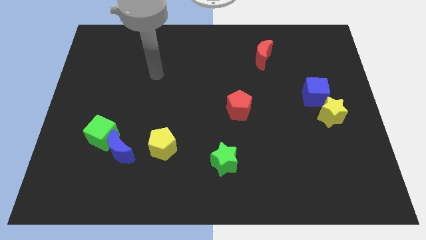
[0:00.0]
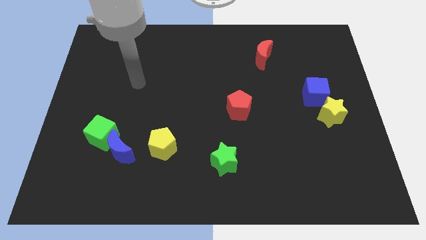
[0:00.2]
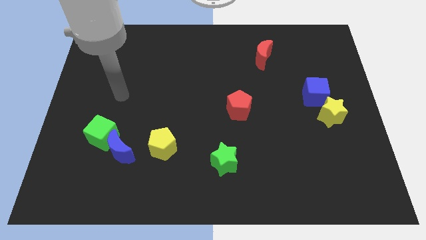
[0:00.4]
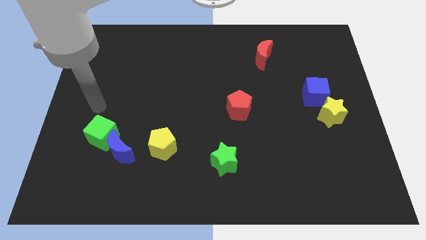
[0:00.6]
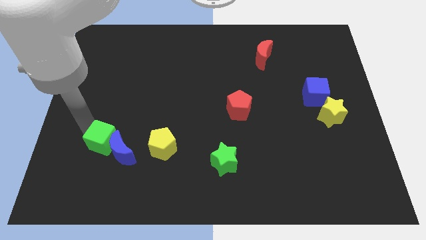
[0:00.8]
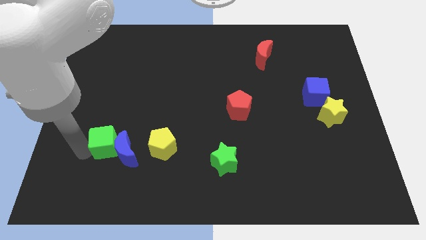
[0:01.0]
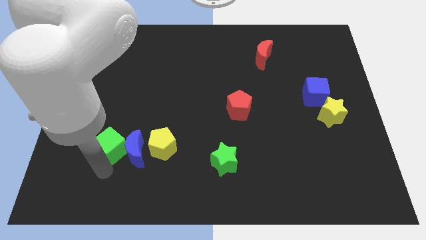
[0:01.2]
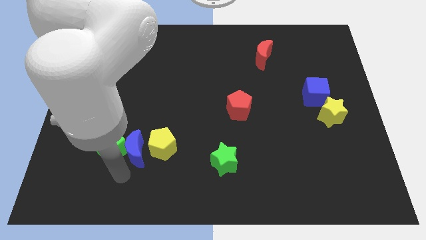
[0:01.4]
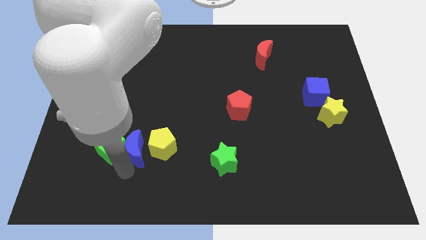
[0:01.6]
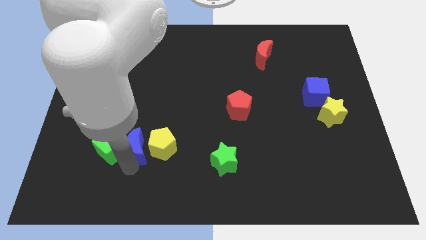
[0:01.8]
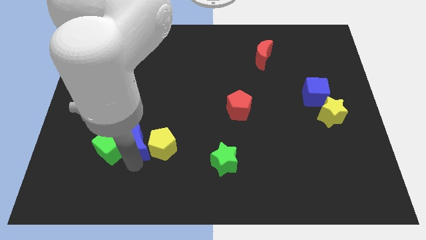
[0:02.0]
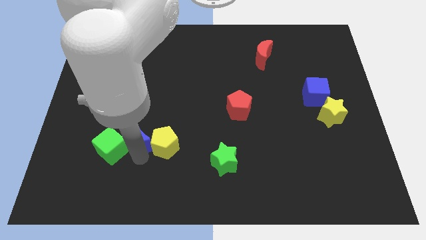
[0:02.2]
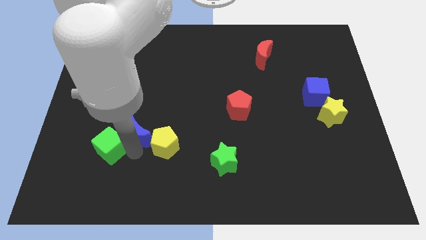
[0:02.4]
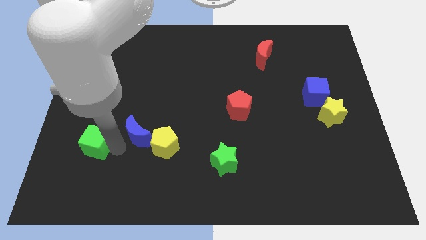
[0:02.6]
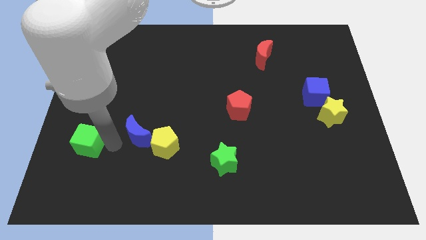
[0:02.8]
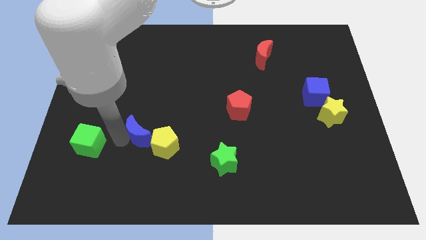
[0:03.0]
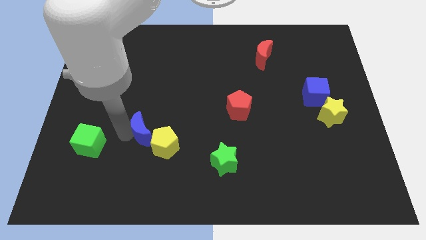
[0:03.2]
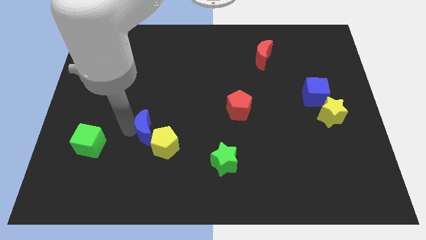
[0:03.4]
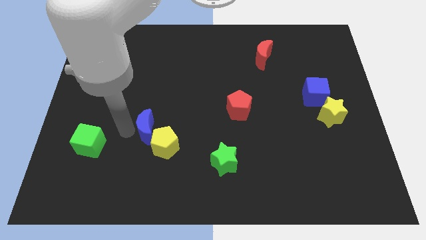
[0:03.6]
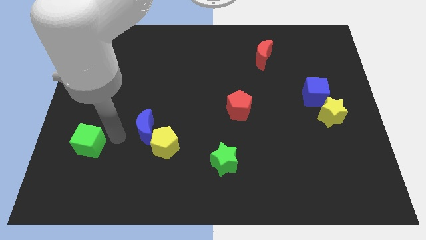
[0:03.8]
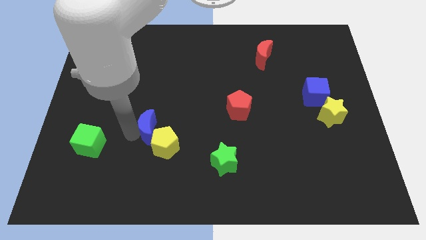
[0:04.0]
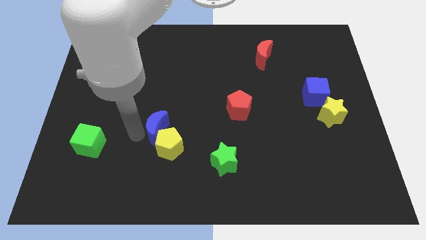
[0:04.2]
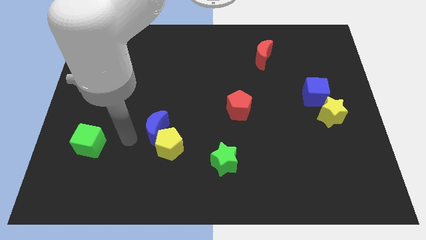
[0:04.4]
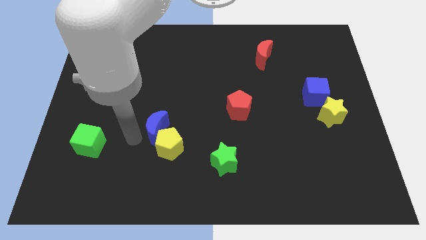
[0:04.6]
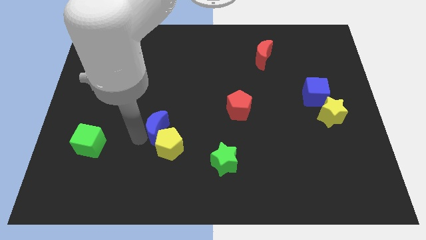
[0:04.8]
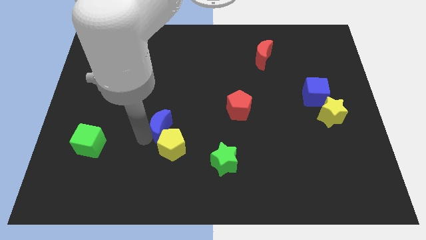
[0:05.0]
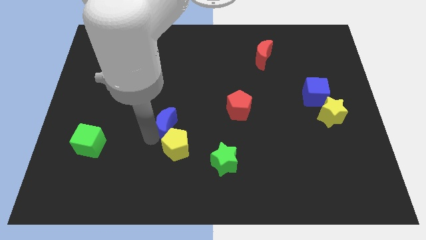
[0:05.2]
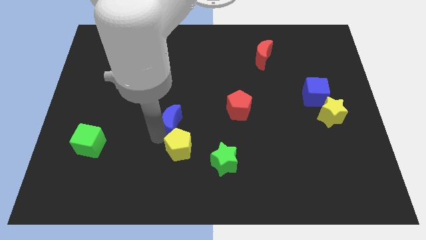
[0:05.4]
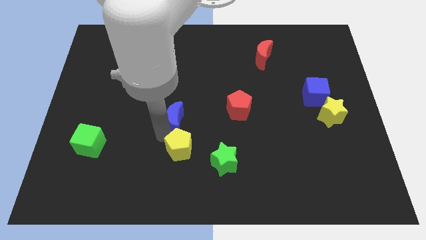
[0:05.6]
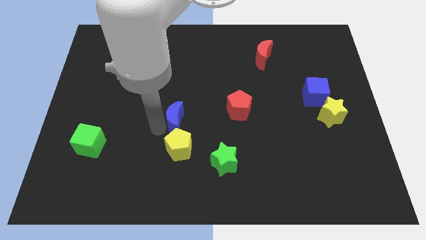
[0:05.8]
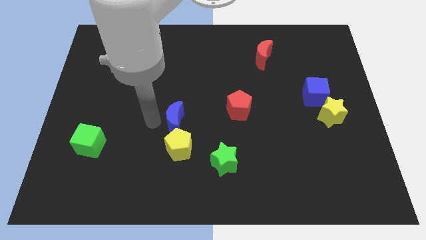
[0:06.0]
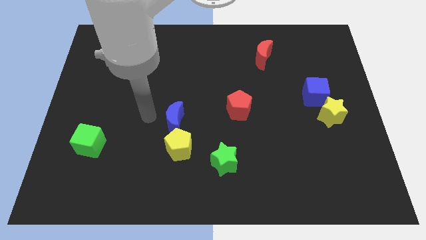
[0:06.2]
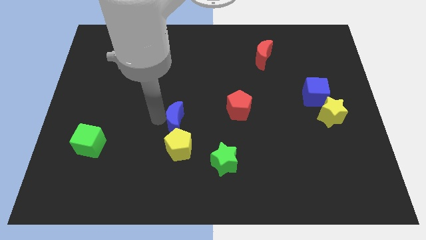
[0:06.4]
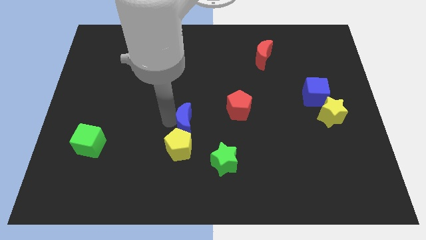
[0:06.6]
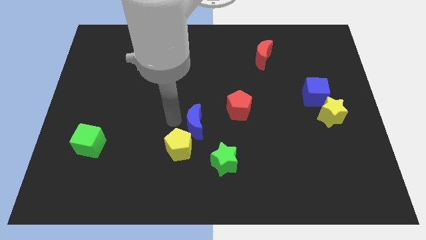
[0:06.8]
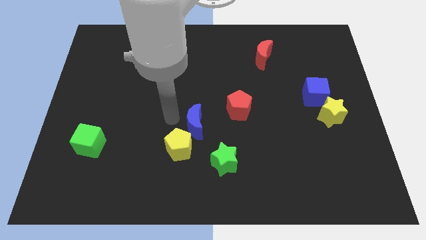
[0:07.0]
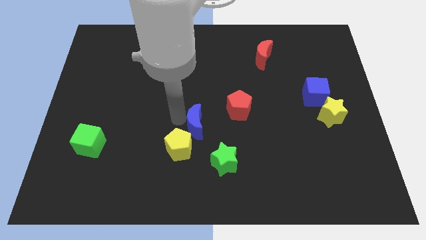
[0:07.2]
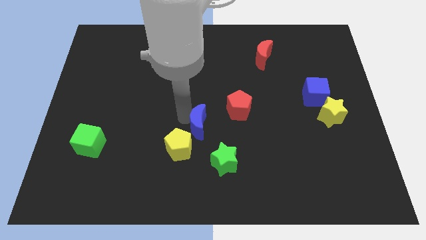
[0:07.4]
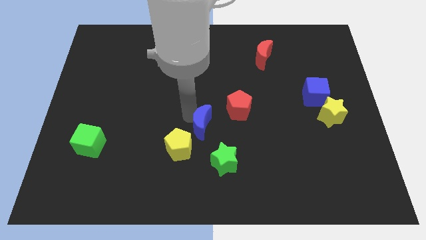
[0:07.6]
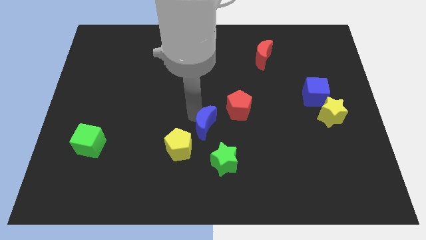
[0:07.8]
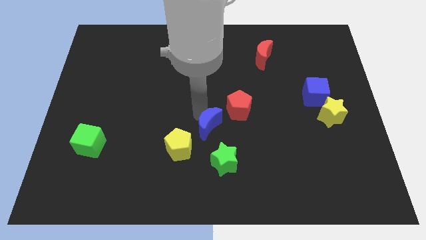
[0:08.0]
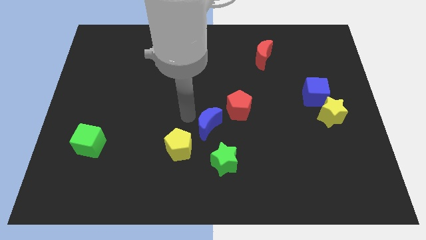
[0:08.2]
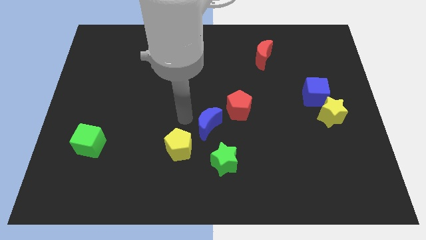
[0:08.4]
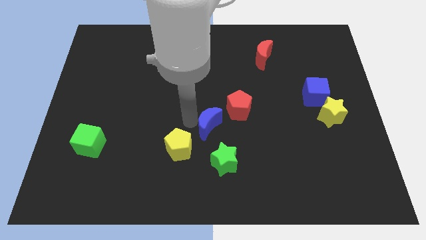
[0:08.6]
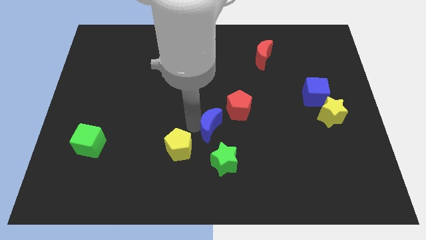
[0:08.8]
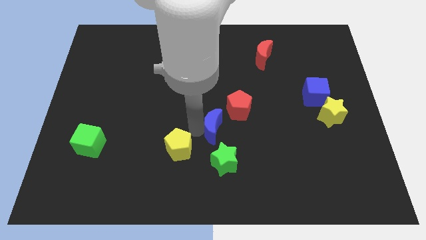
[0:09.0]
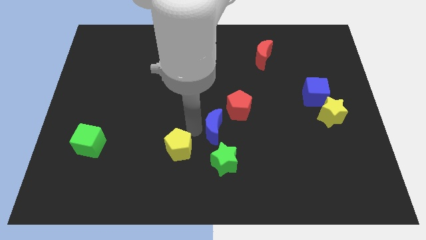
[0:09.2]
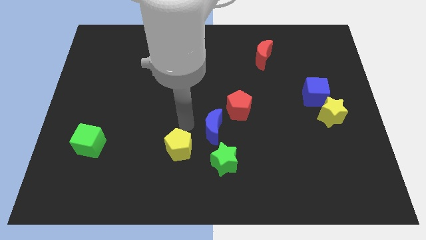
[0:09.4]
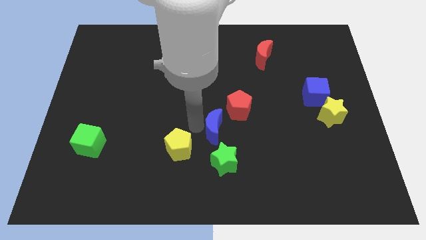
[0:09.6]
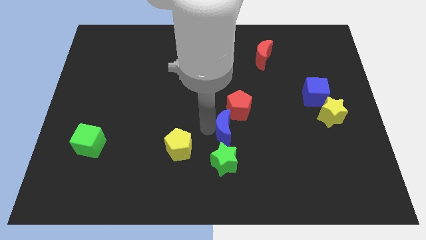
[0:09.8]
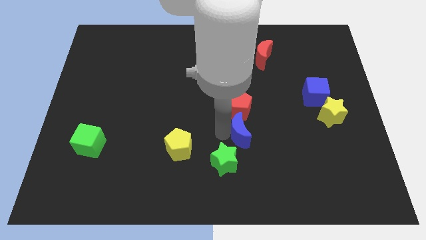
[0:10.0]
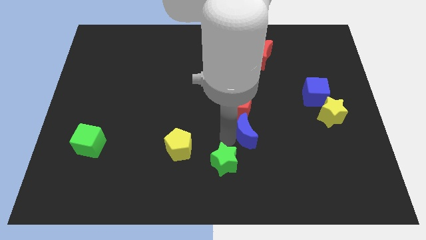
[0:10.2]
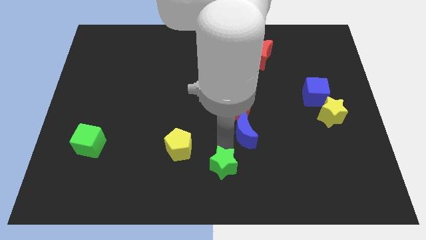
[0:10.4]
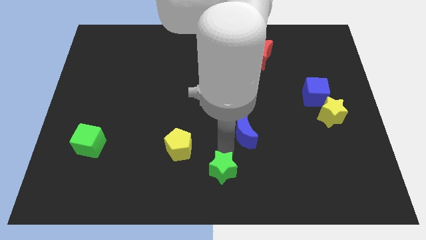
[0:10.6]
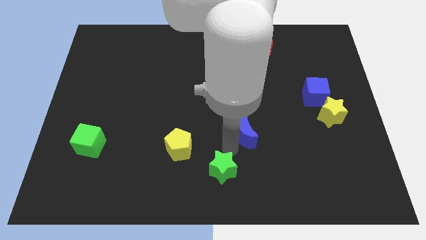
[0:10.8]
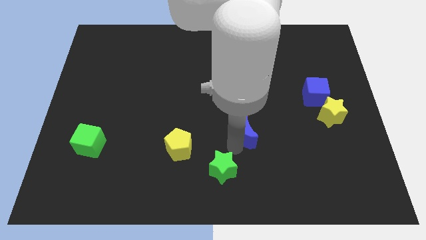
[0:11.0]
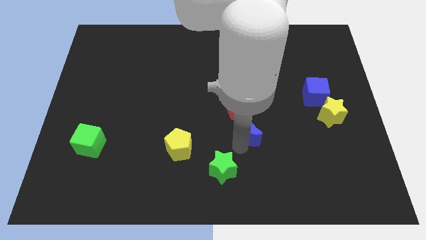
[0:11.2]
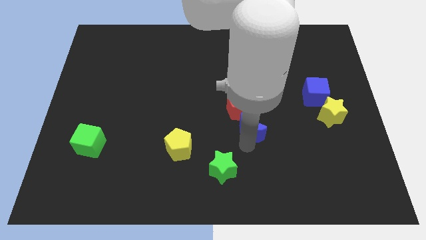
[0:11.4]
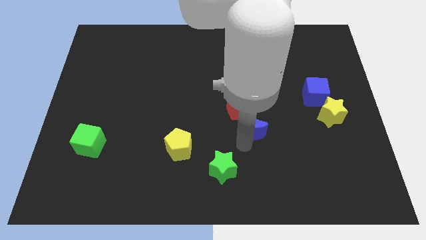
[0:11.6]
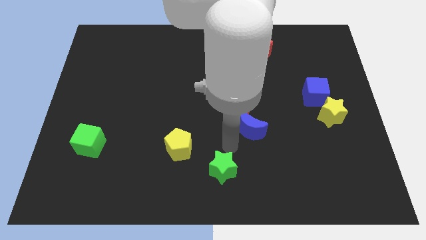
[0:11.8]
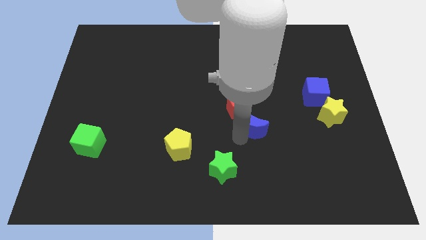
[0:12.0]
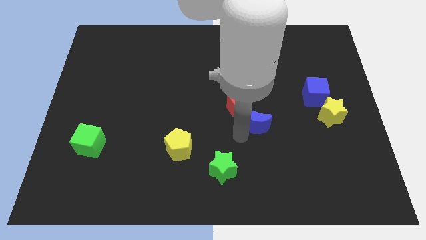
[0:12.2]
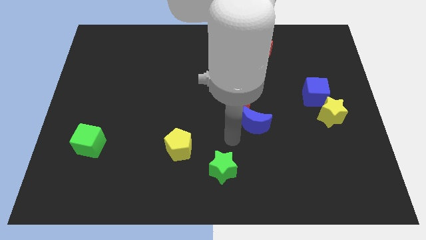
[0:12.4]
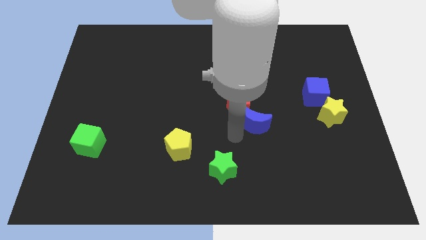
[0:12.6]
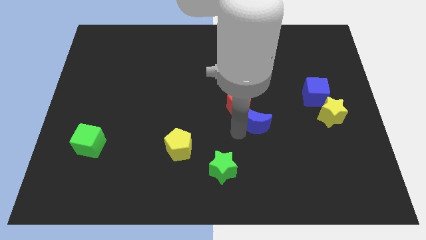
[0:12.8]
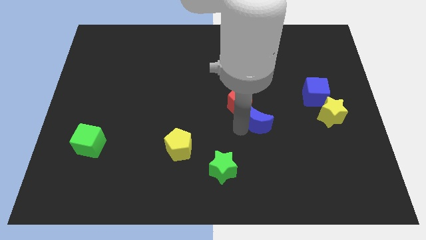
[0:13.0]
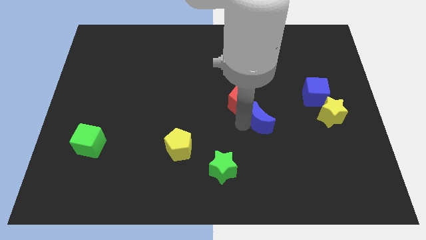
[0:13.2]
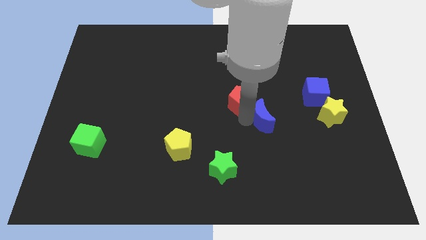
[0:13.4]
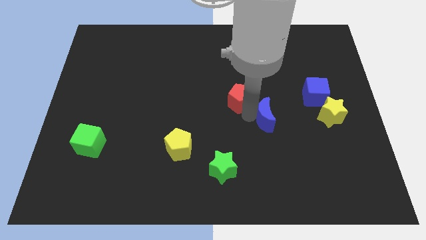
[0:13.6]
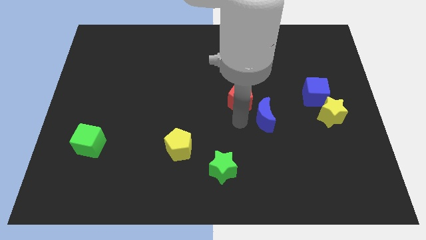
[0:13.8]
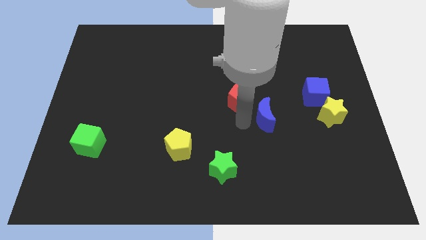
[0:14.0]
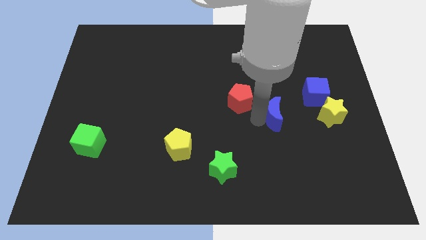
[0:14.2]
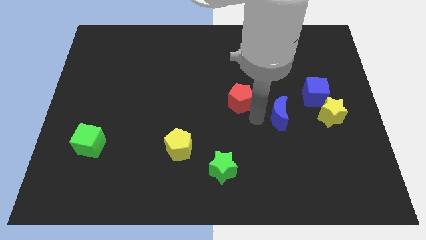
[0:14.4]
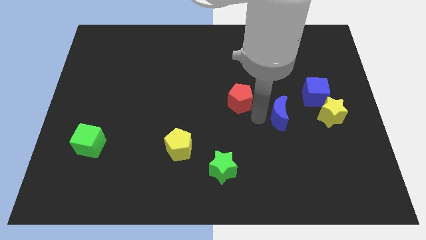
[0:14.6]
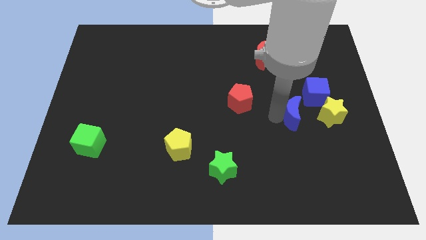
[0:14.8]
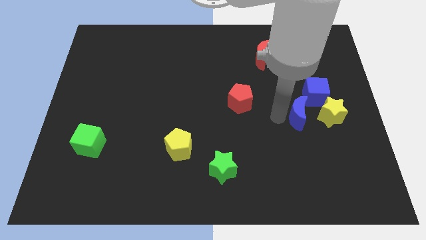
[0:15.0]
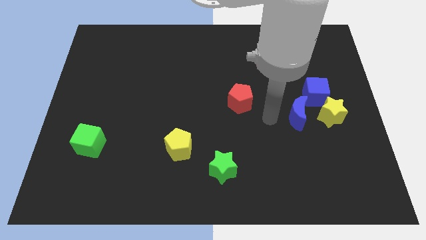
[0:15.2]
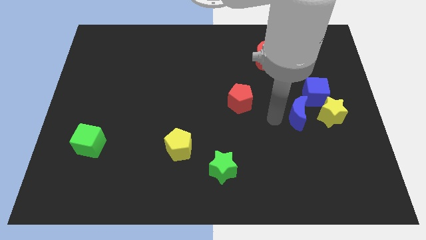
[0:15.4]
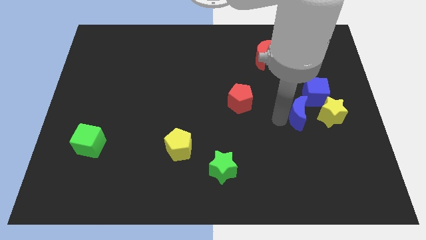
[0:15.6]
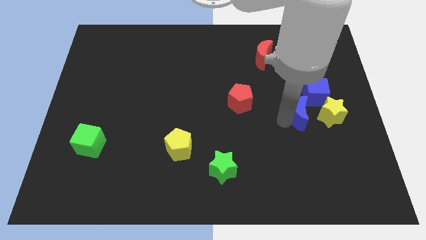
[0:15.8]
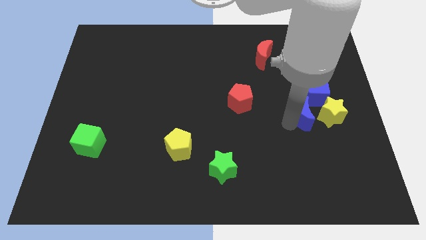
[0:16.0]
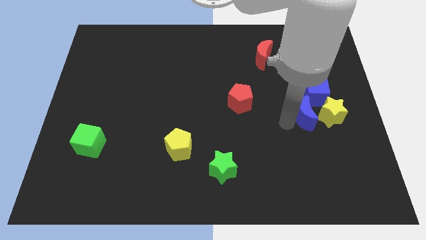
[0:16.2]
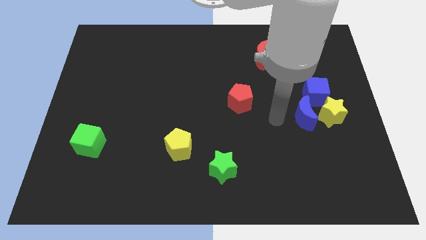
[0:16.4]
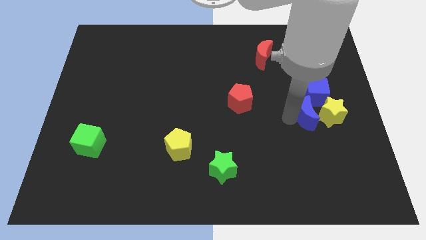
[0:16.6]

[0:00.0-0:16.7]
slide the blue moon close to the yellow star
